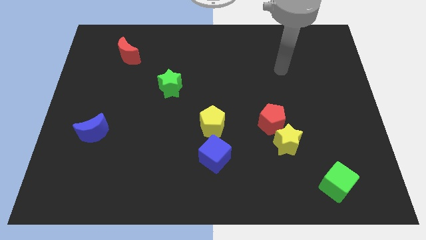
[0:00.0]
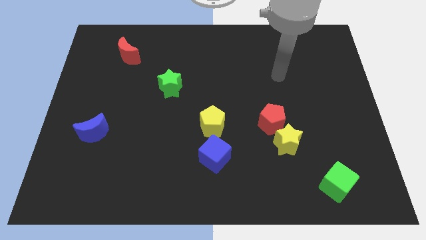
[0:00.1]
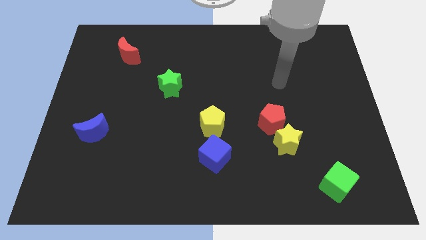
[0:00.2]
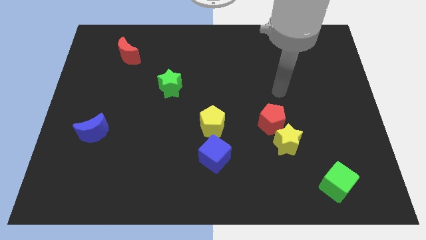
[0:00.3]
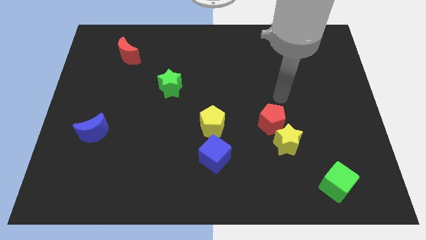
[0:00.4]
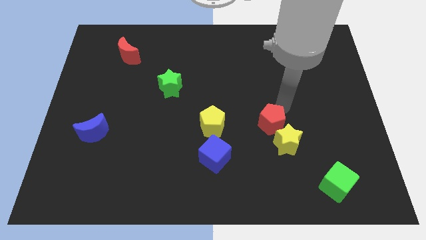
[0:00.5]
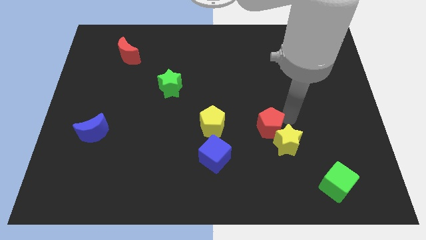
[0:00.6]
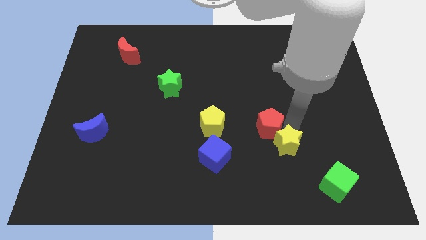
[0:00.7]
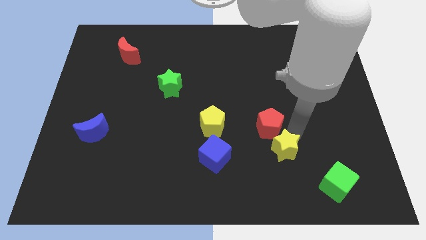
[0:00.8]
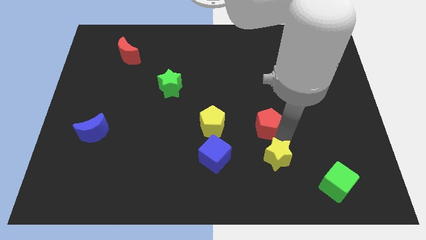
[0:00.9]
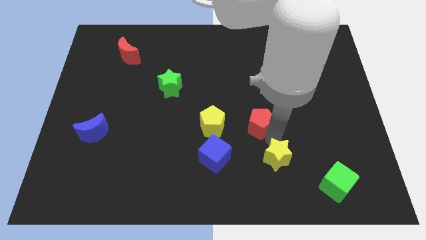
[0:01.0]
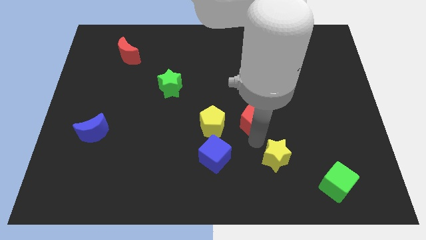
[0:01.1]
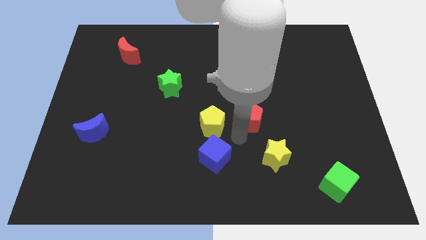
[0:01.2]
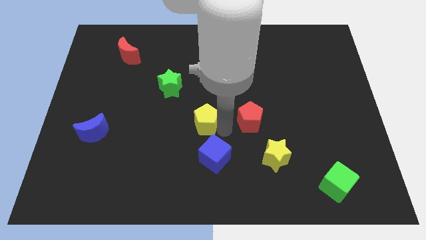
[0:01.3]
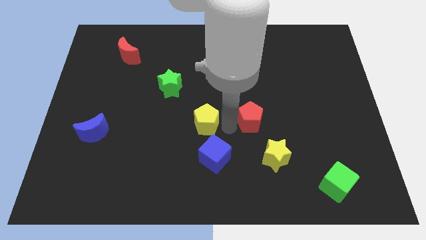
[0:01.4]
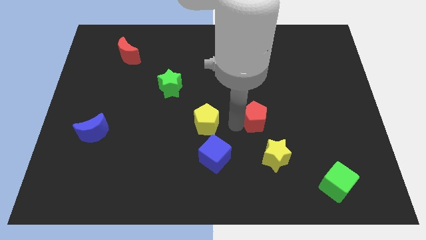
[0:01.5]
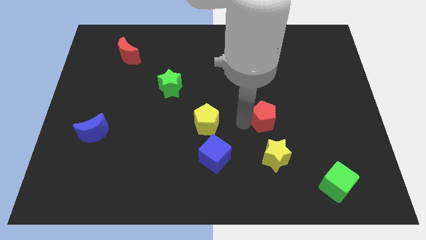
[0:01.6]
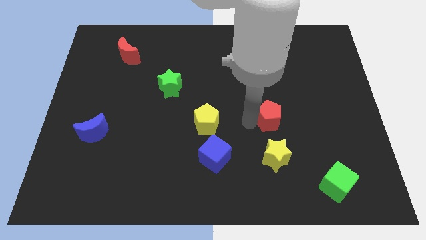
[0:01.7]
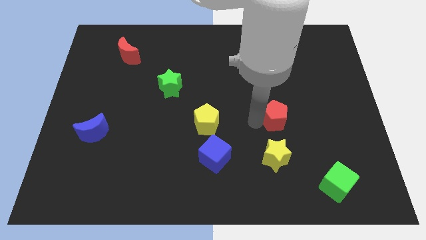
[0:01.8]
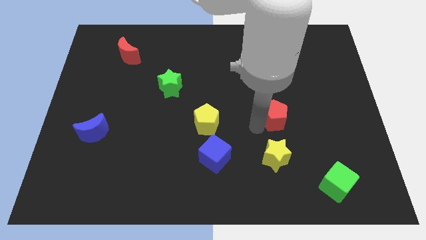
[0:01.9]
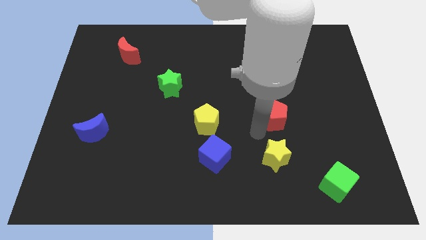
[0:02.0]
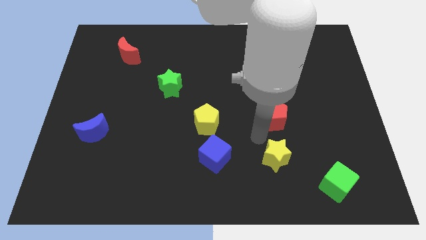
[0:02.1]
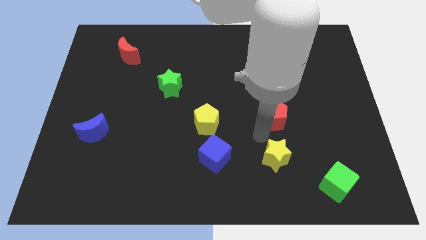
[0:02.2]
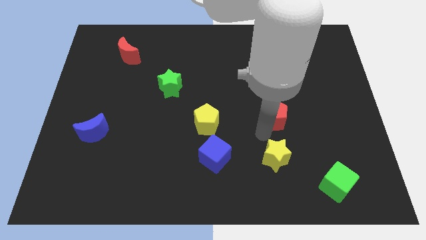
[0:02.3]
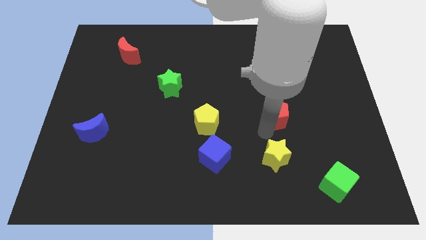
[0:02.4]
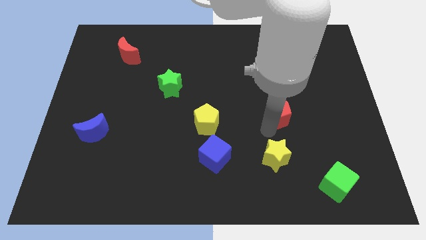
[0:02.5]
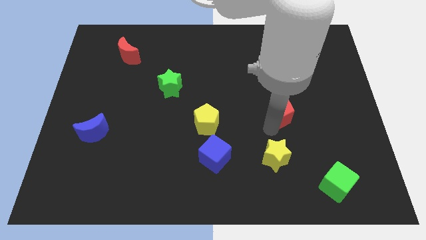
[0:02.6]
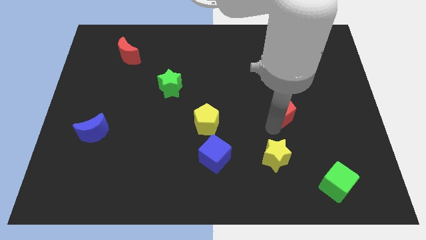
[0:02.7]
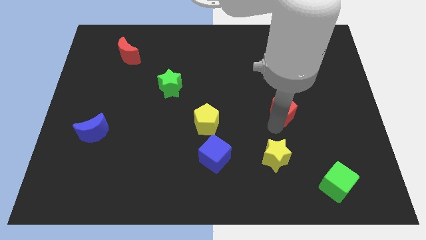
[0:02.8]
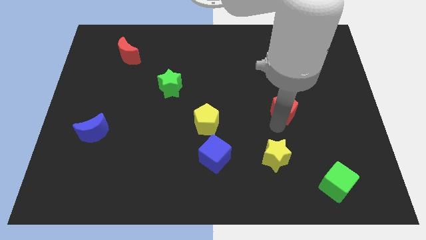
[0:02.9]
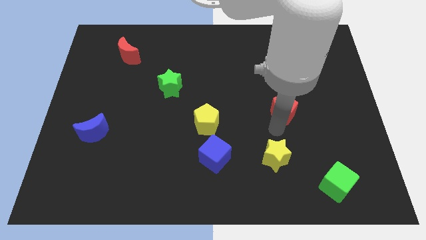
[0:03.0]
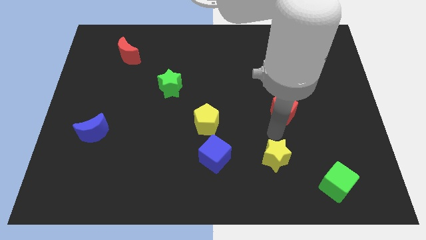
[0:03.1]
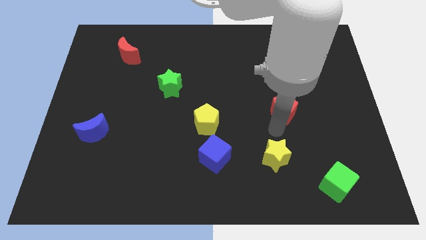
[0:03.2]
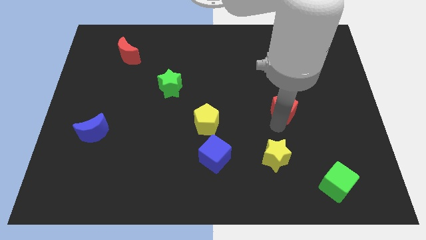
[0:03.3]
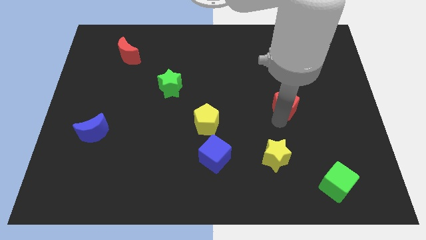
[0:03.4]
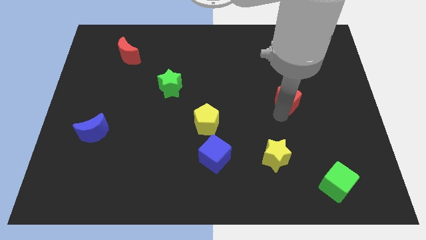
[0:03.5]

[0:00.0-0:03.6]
slightly push the red pentagon diagonally upwards and right

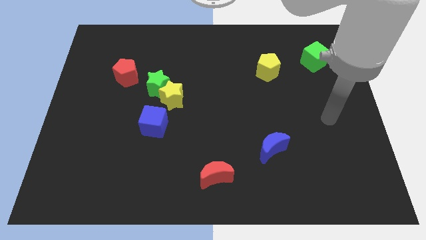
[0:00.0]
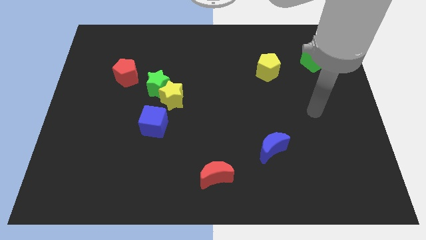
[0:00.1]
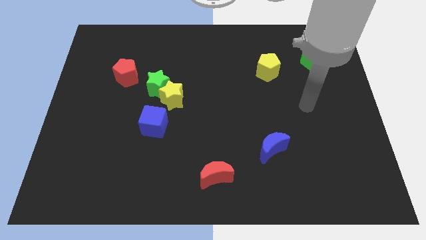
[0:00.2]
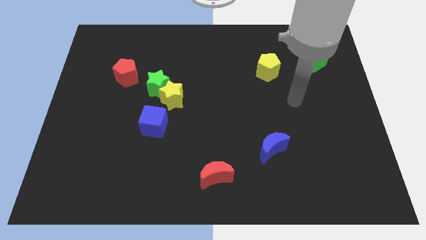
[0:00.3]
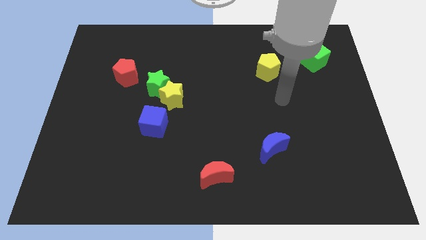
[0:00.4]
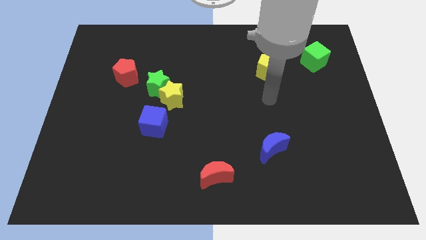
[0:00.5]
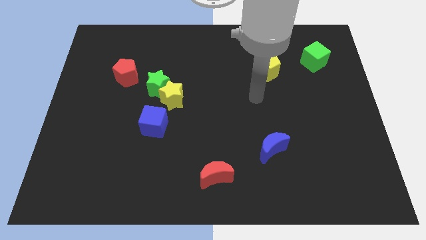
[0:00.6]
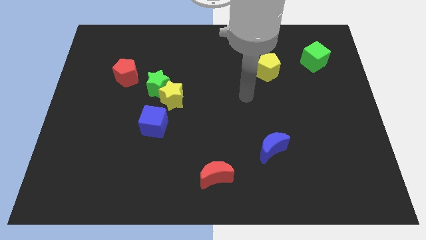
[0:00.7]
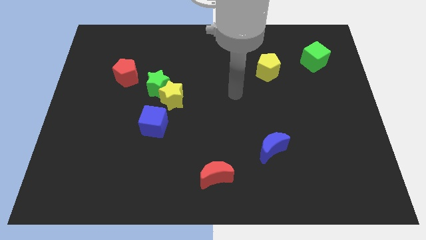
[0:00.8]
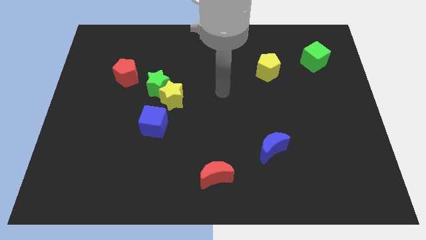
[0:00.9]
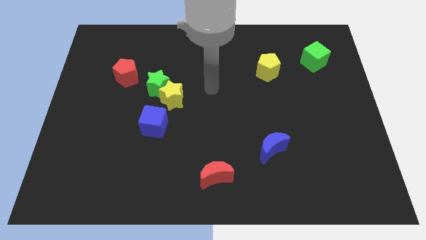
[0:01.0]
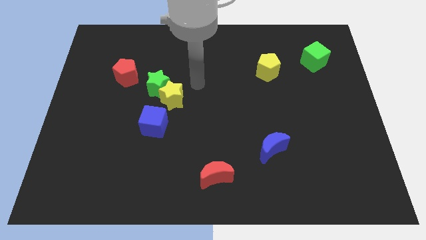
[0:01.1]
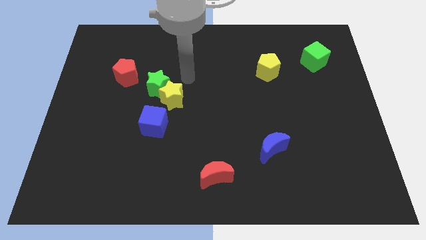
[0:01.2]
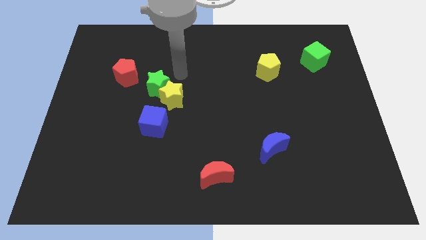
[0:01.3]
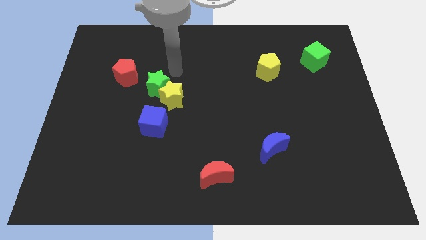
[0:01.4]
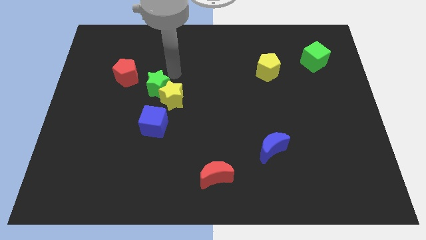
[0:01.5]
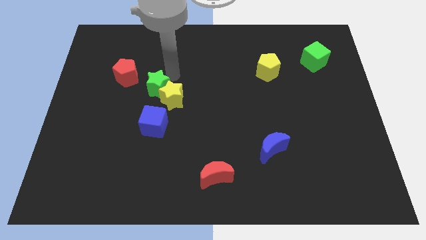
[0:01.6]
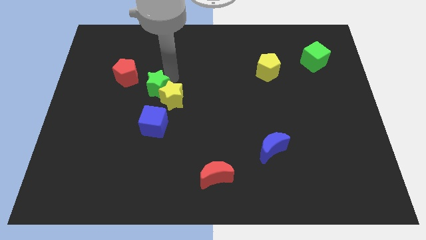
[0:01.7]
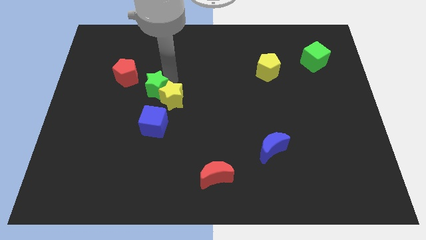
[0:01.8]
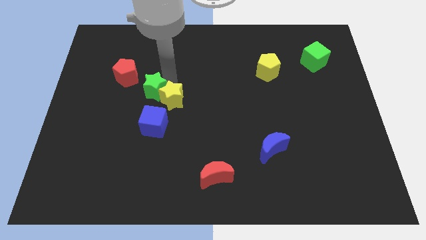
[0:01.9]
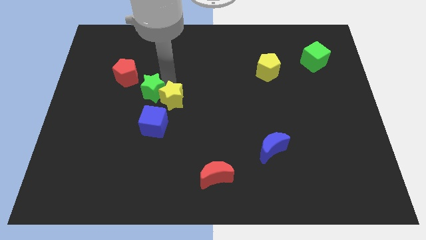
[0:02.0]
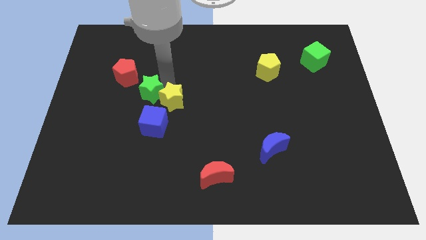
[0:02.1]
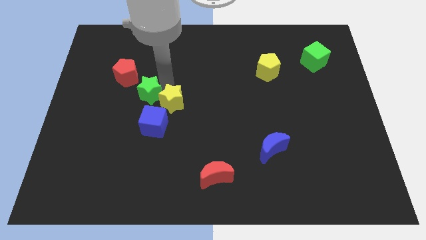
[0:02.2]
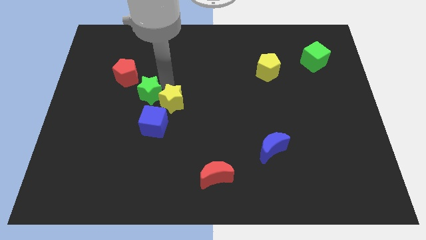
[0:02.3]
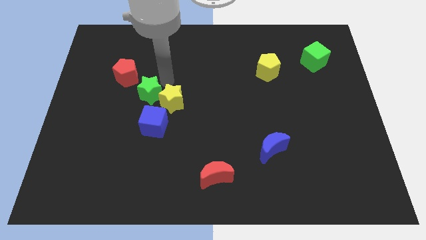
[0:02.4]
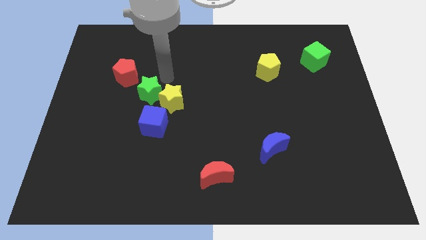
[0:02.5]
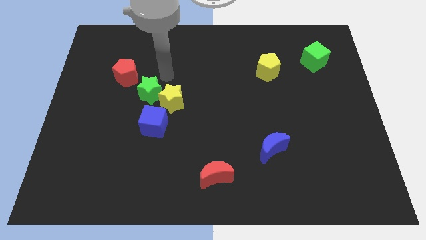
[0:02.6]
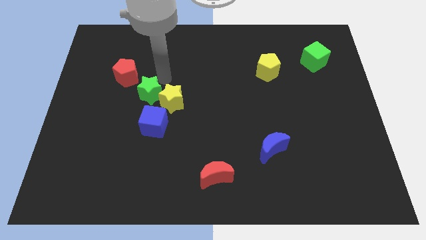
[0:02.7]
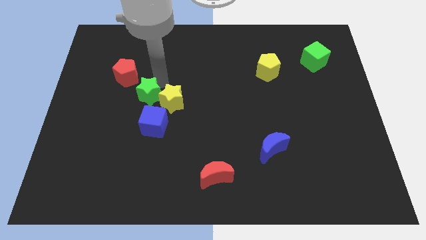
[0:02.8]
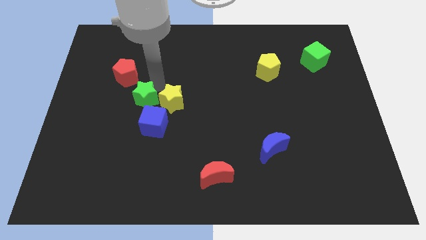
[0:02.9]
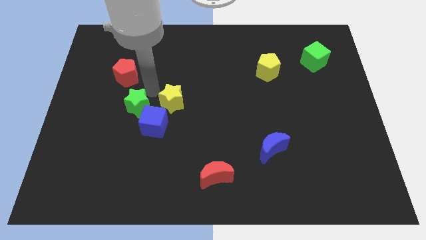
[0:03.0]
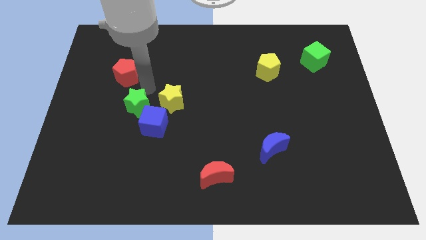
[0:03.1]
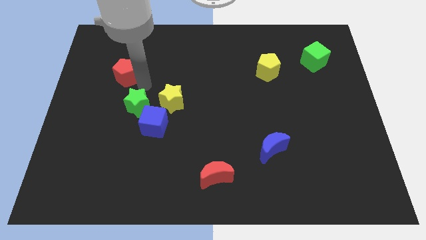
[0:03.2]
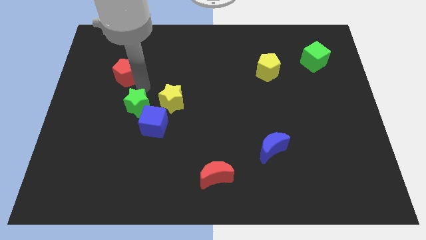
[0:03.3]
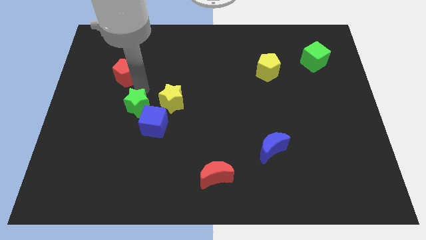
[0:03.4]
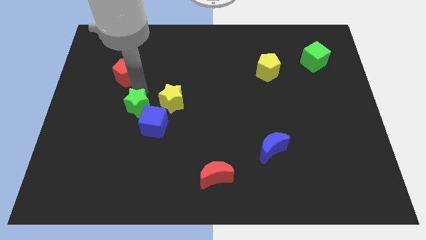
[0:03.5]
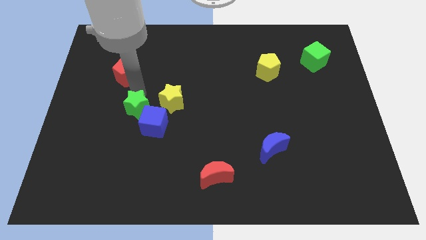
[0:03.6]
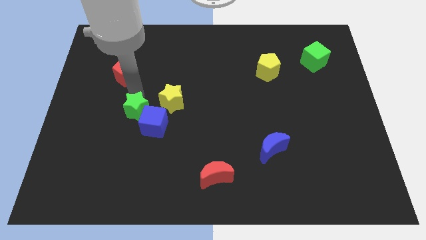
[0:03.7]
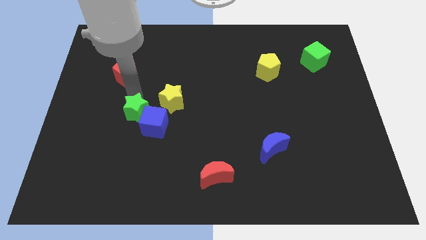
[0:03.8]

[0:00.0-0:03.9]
move the green star slightly downwards

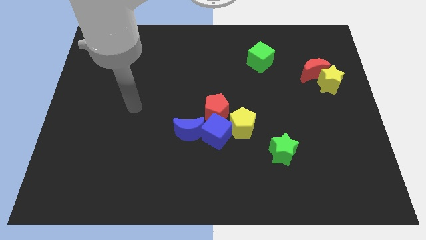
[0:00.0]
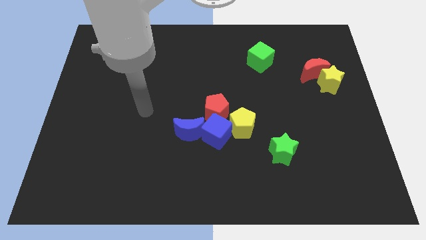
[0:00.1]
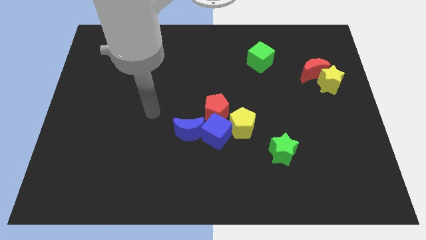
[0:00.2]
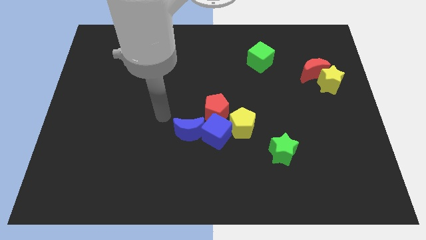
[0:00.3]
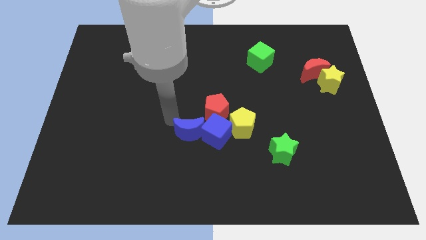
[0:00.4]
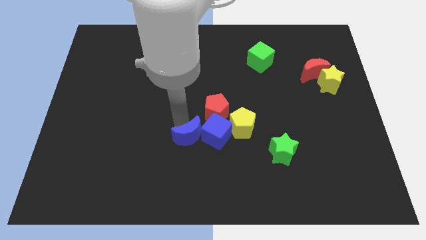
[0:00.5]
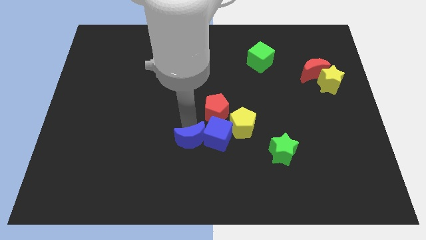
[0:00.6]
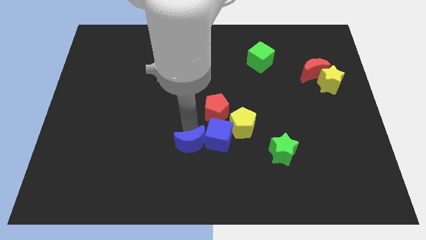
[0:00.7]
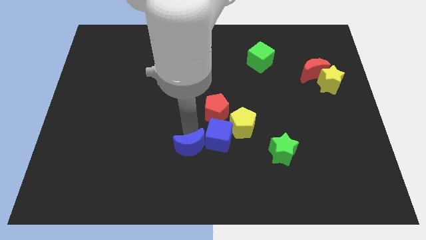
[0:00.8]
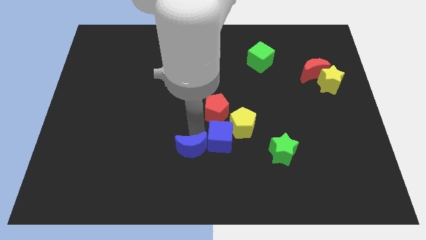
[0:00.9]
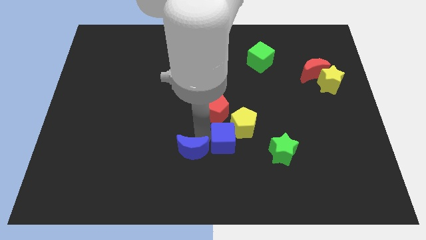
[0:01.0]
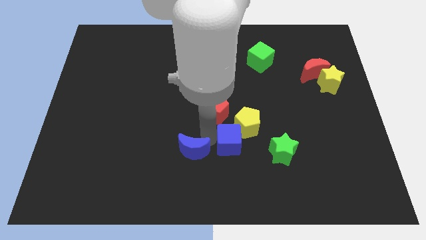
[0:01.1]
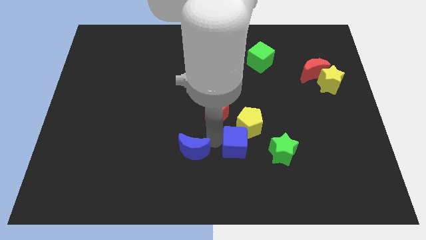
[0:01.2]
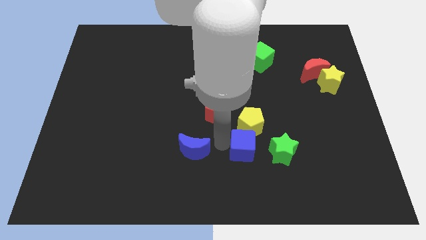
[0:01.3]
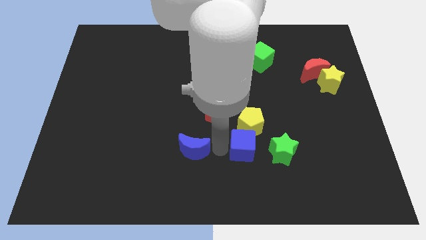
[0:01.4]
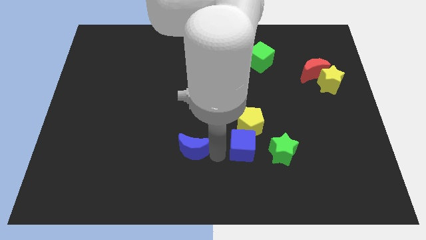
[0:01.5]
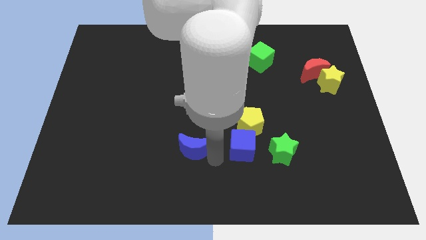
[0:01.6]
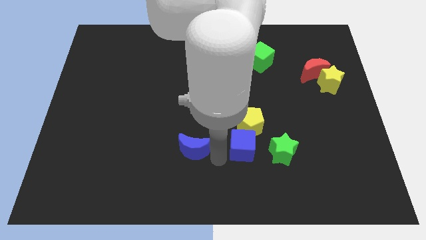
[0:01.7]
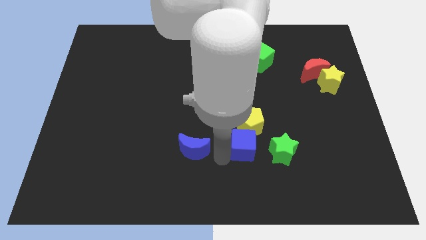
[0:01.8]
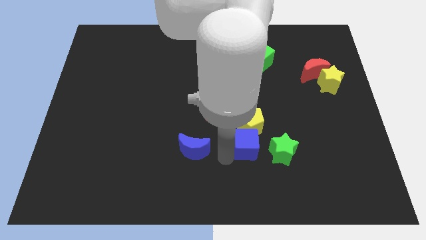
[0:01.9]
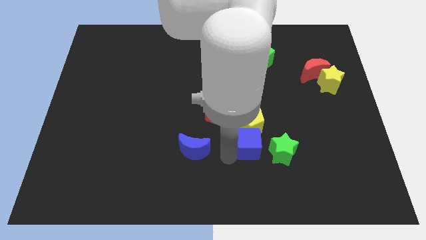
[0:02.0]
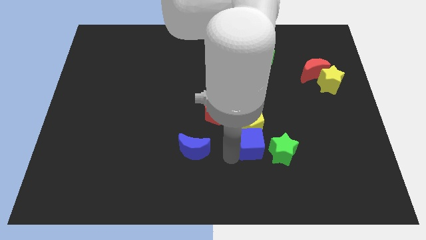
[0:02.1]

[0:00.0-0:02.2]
slide the blue cube right a bit
